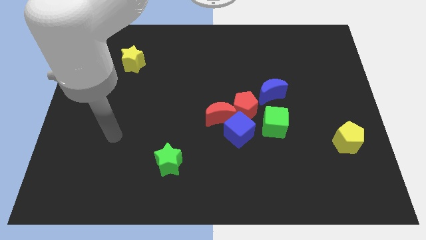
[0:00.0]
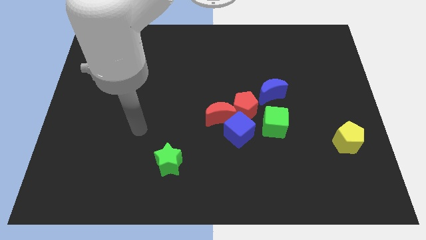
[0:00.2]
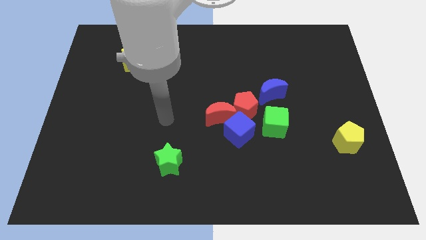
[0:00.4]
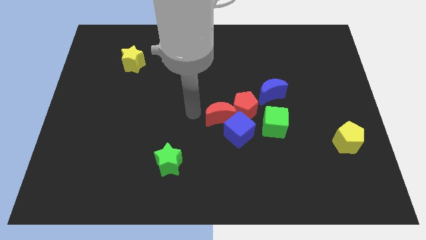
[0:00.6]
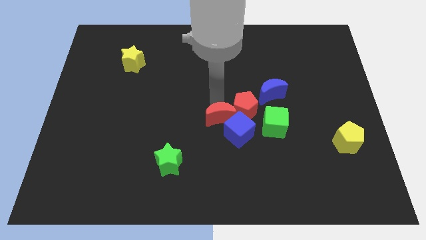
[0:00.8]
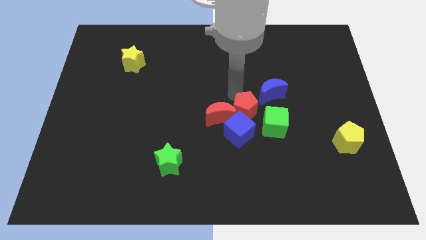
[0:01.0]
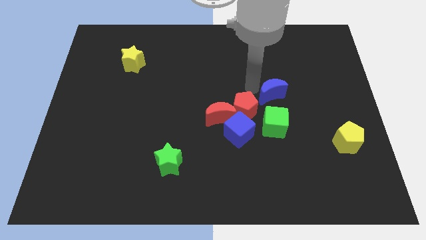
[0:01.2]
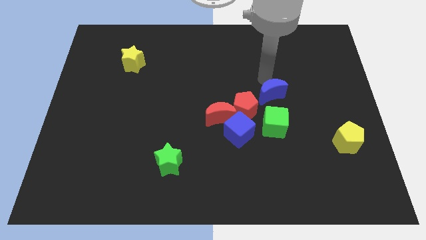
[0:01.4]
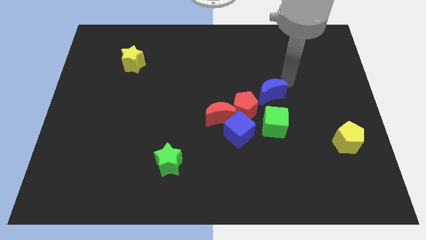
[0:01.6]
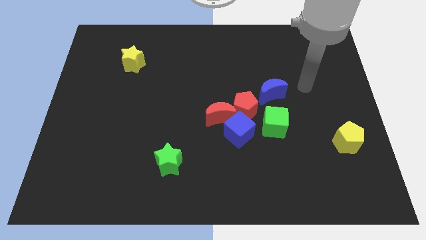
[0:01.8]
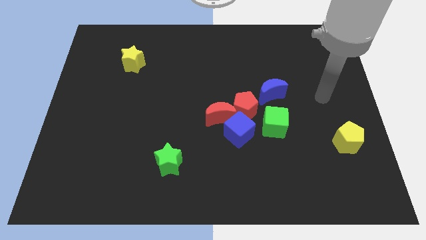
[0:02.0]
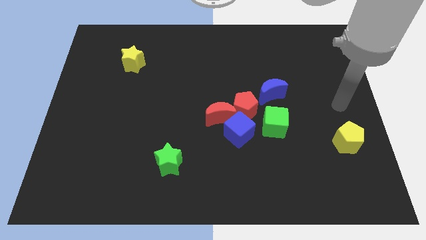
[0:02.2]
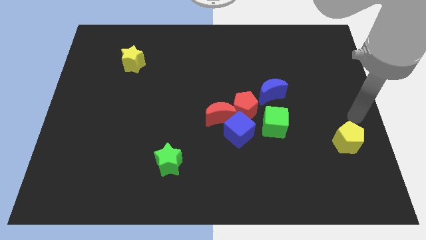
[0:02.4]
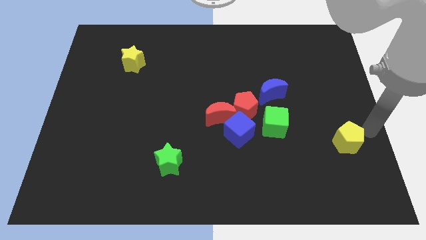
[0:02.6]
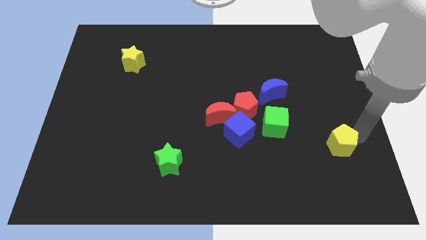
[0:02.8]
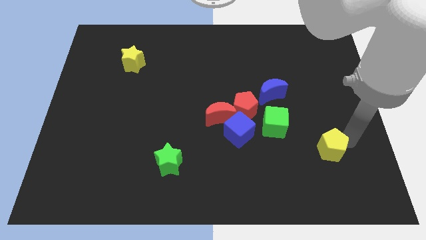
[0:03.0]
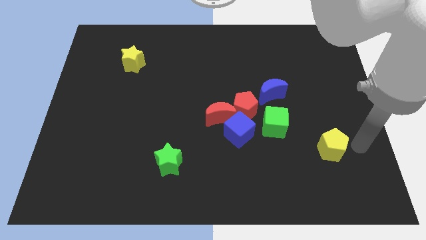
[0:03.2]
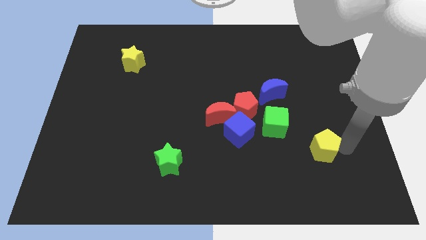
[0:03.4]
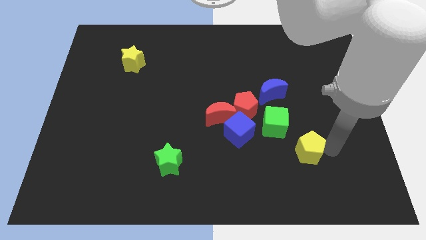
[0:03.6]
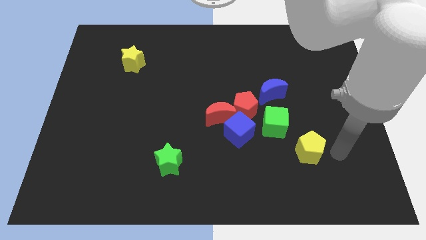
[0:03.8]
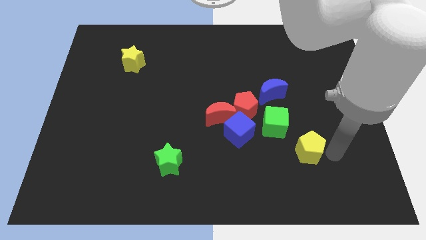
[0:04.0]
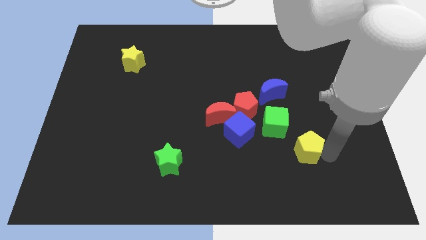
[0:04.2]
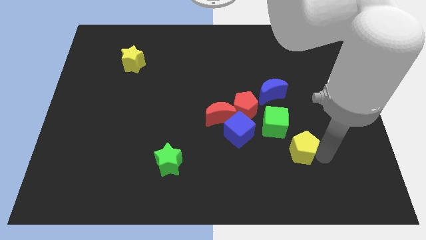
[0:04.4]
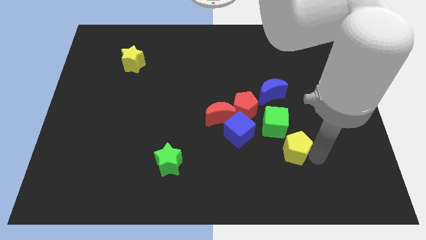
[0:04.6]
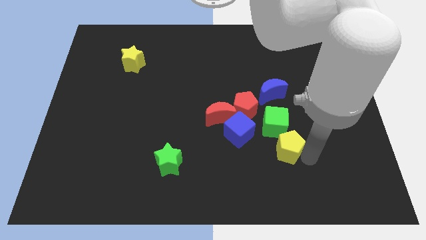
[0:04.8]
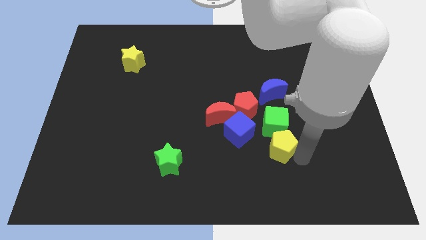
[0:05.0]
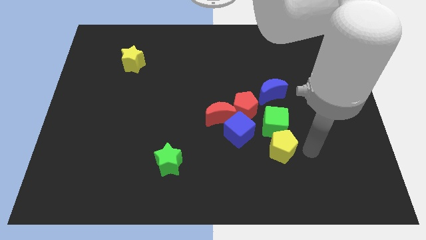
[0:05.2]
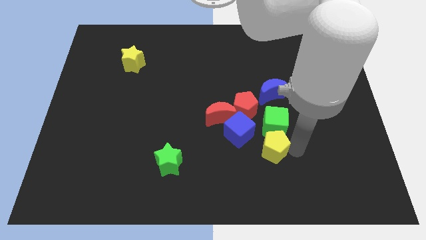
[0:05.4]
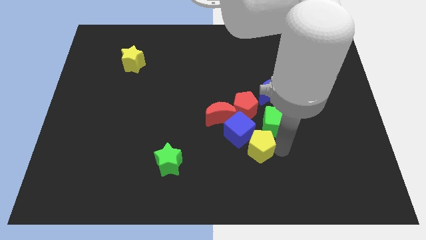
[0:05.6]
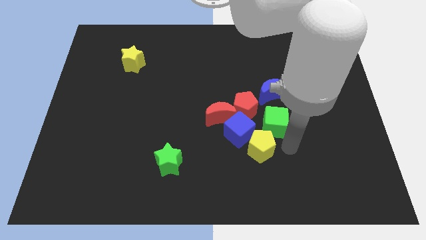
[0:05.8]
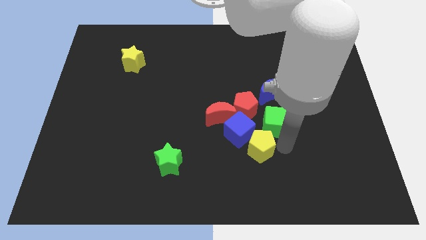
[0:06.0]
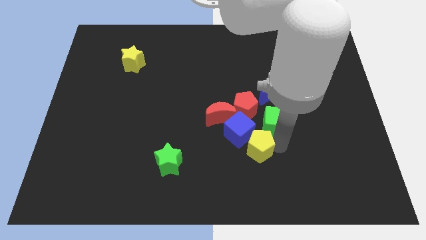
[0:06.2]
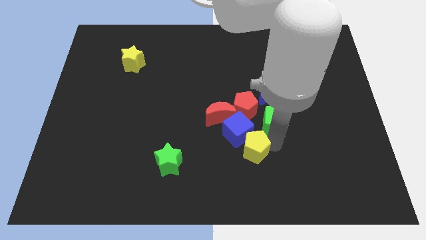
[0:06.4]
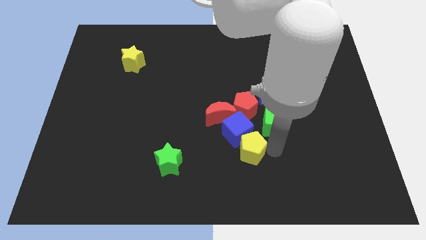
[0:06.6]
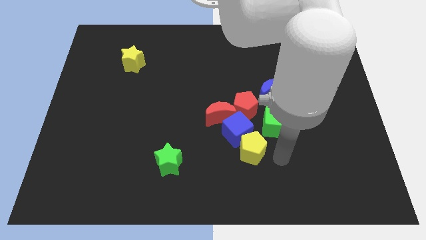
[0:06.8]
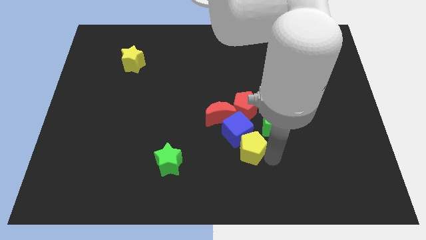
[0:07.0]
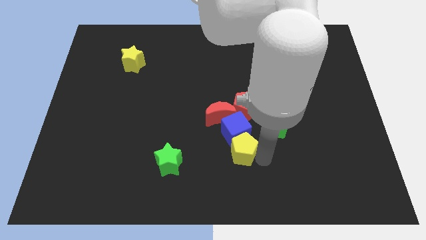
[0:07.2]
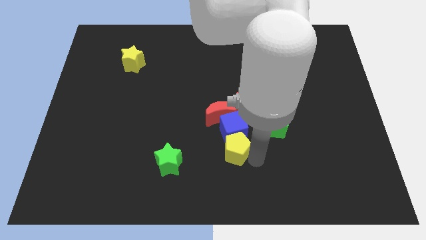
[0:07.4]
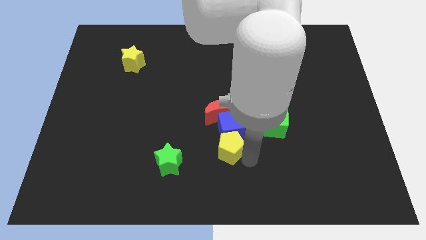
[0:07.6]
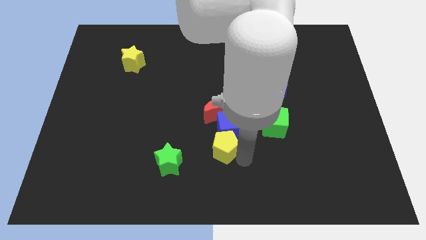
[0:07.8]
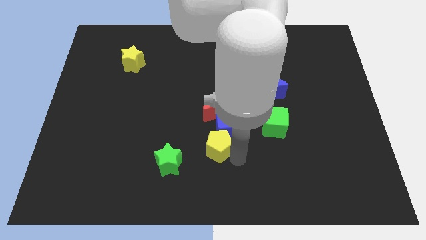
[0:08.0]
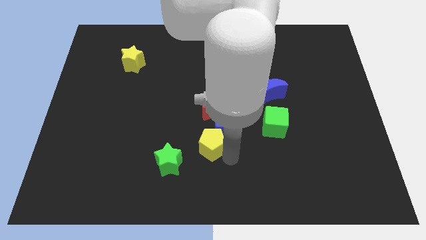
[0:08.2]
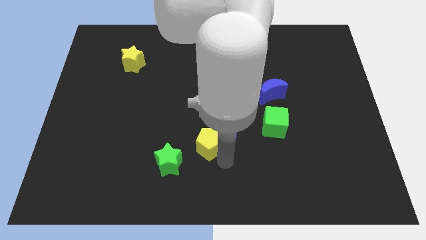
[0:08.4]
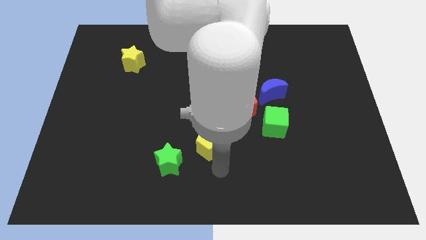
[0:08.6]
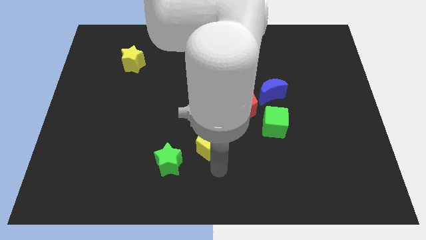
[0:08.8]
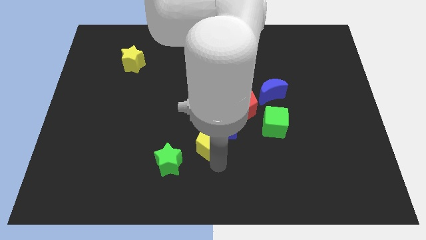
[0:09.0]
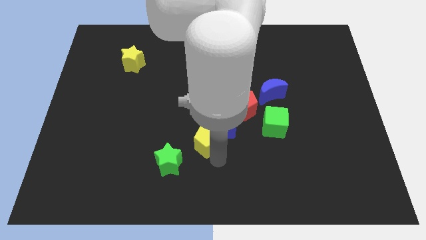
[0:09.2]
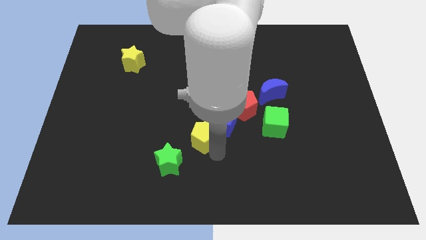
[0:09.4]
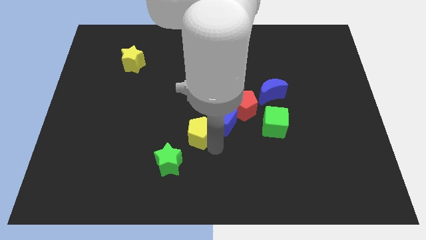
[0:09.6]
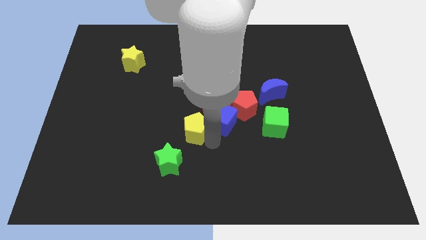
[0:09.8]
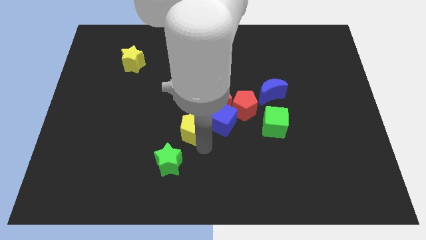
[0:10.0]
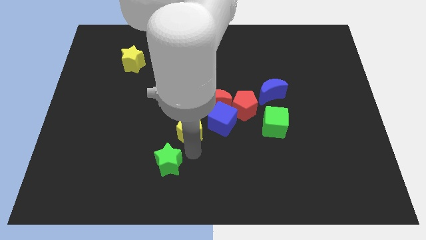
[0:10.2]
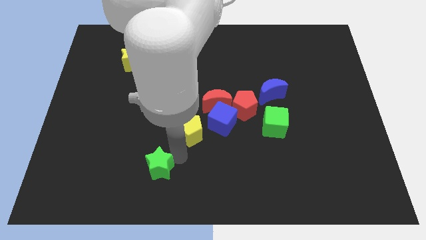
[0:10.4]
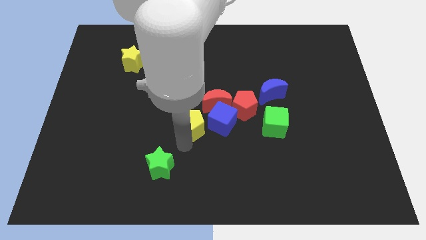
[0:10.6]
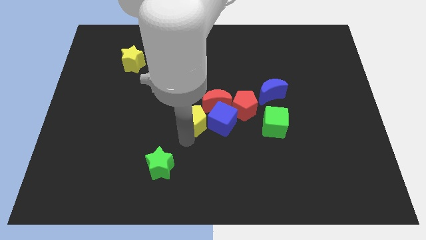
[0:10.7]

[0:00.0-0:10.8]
slide the yellow pentagon diagonally up and to the left of the blue cube

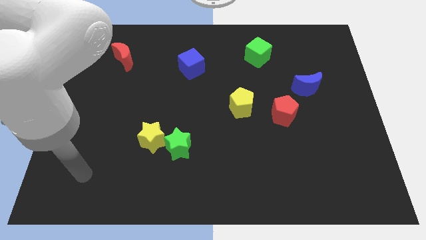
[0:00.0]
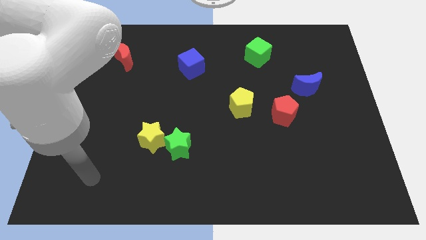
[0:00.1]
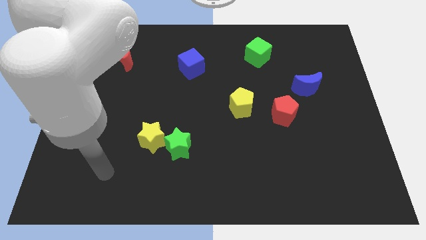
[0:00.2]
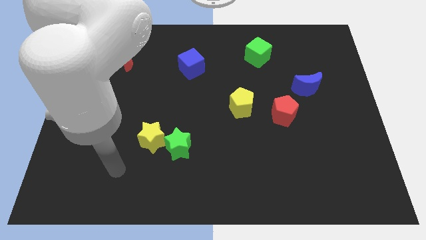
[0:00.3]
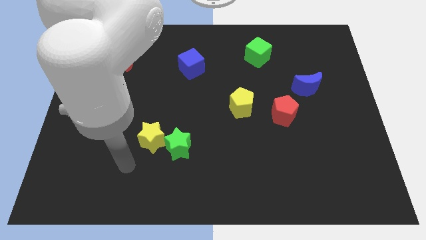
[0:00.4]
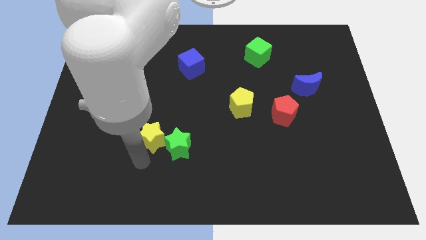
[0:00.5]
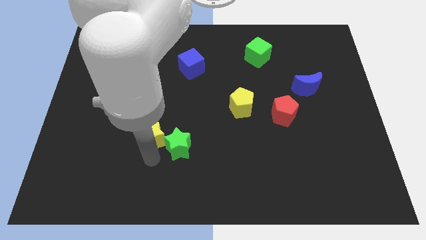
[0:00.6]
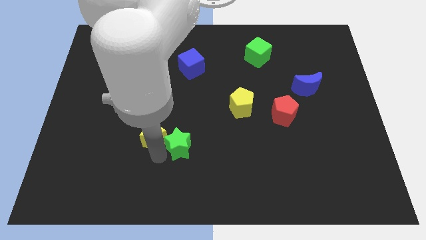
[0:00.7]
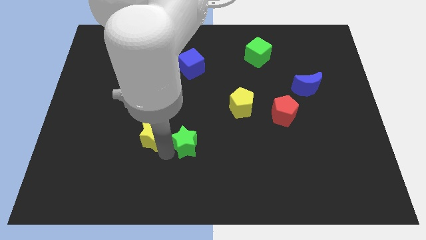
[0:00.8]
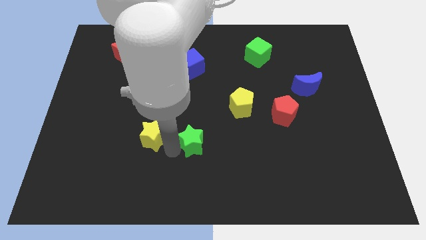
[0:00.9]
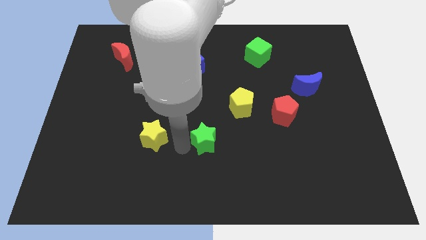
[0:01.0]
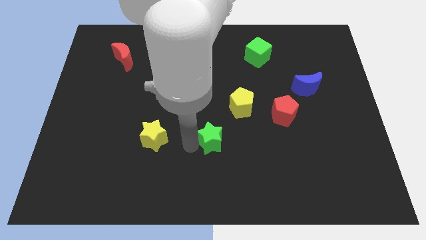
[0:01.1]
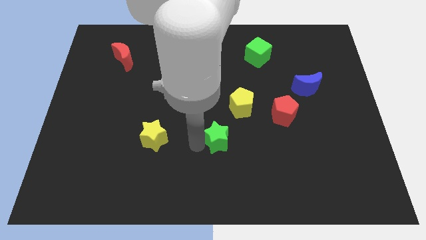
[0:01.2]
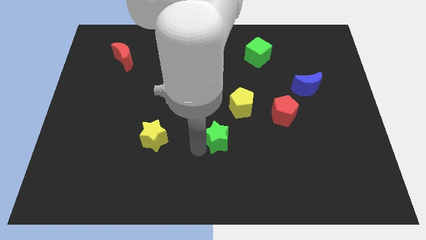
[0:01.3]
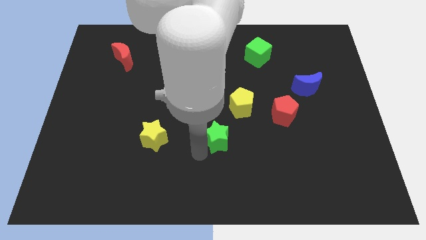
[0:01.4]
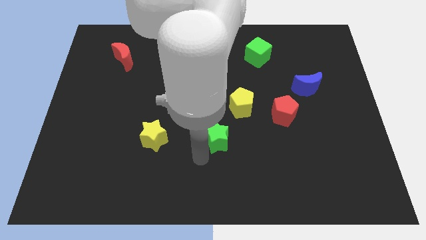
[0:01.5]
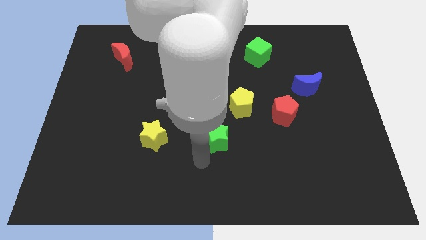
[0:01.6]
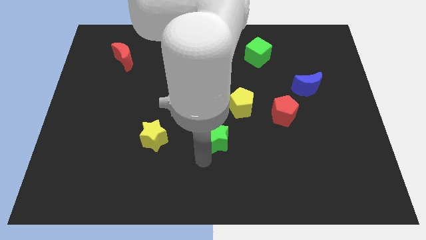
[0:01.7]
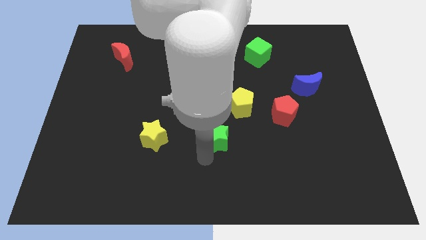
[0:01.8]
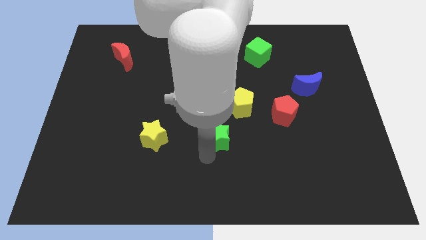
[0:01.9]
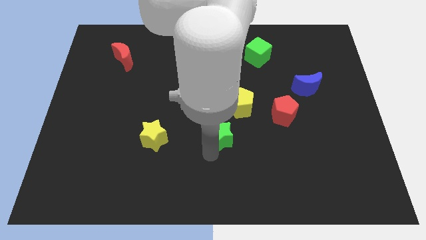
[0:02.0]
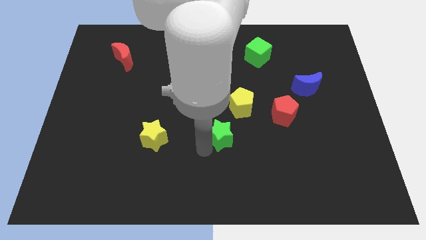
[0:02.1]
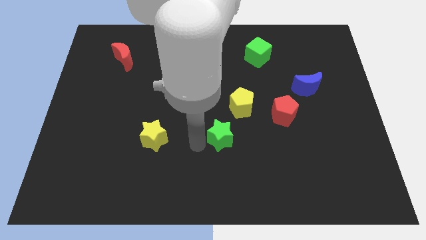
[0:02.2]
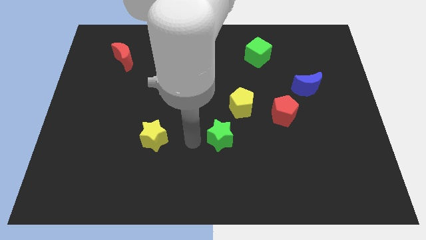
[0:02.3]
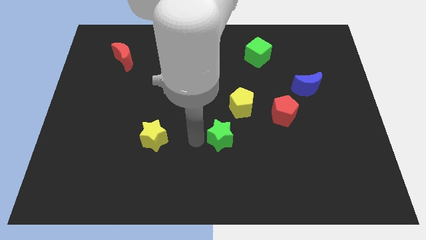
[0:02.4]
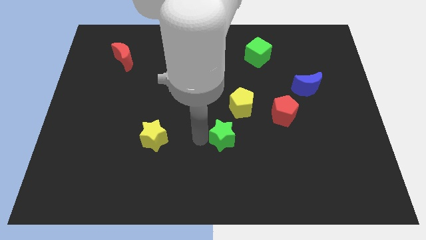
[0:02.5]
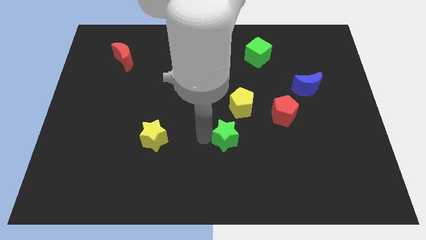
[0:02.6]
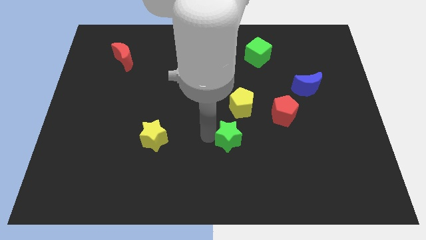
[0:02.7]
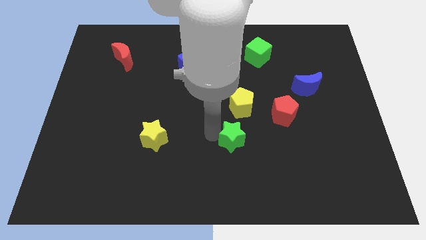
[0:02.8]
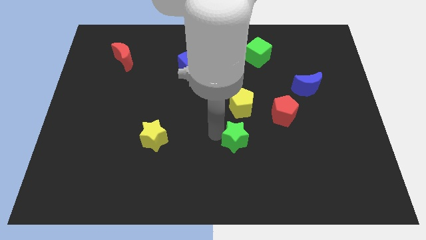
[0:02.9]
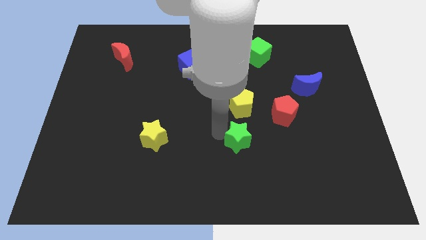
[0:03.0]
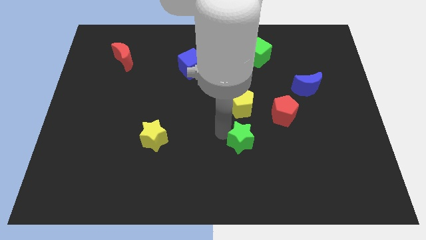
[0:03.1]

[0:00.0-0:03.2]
slide the green star to the bottom left of the red pentagon
